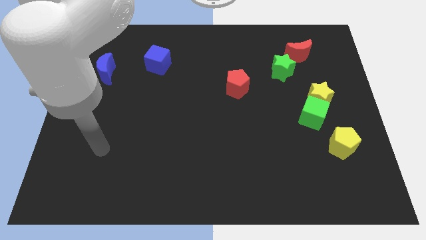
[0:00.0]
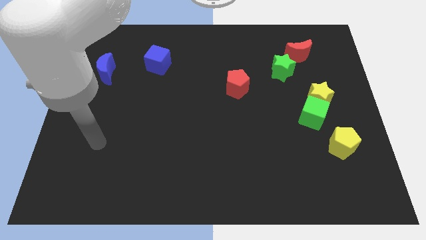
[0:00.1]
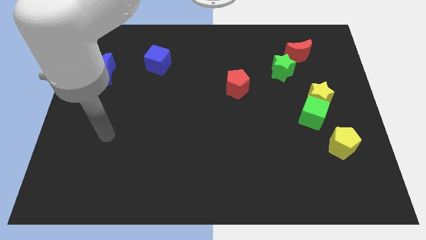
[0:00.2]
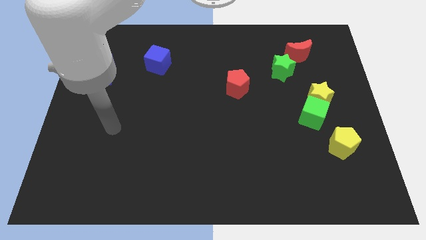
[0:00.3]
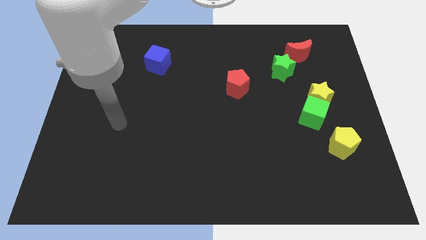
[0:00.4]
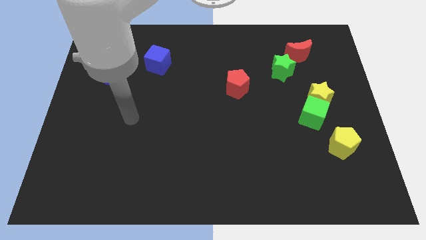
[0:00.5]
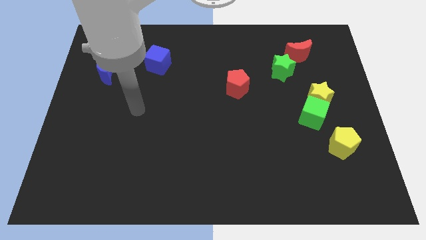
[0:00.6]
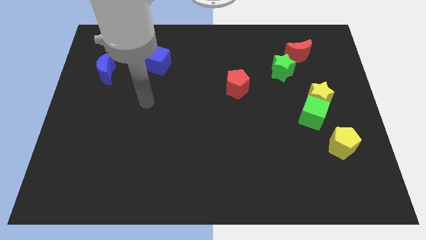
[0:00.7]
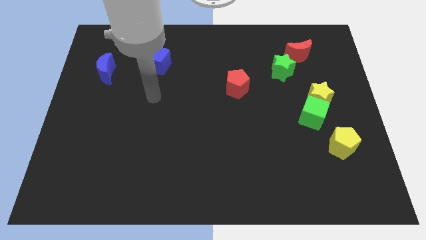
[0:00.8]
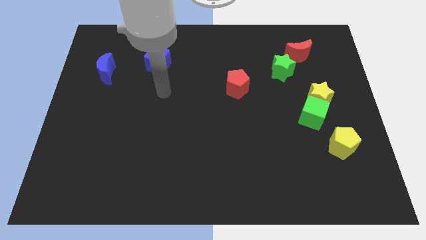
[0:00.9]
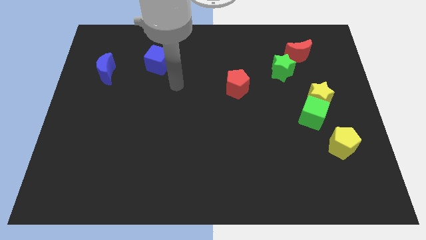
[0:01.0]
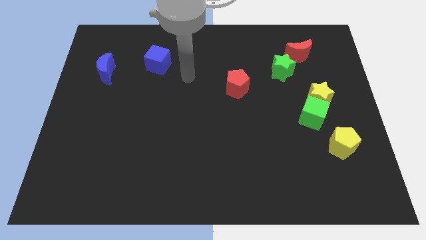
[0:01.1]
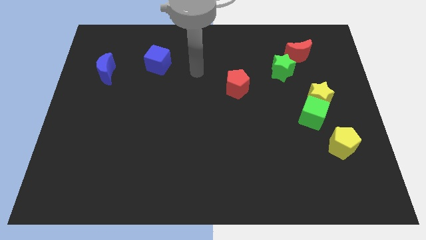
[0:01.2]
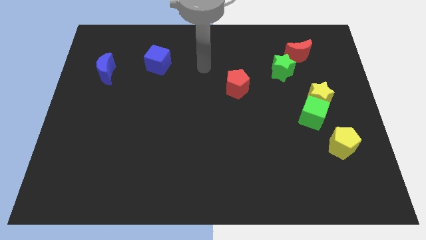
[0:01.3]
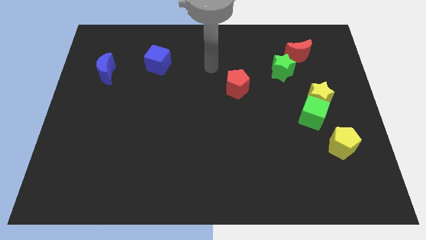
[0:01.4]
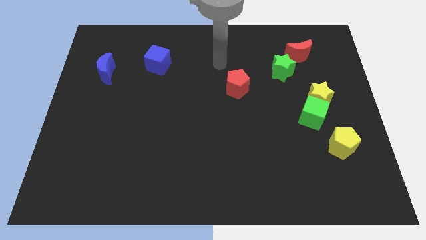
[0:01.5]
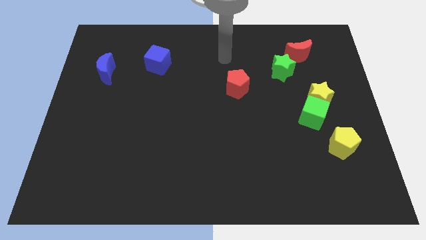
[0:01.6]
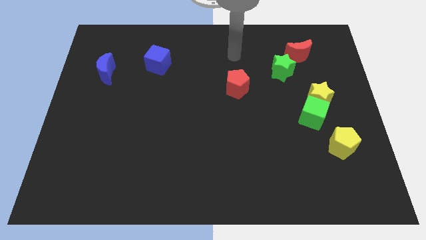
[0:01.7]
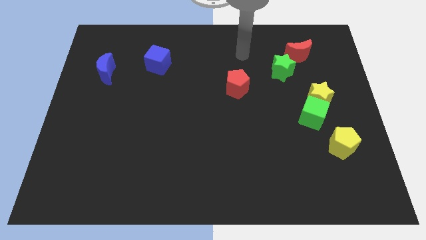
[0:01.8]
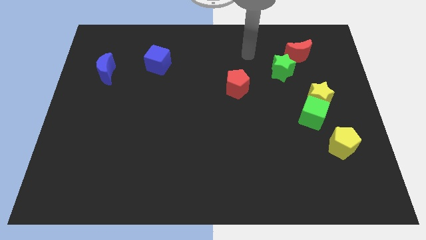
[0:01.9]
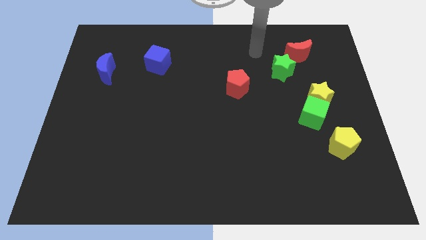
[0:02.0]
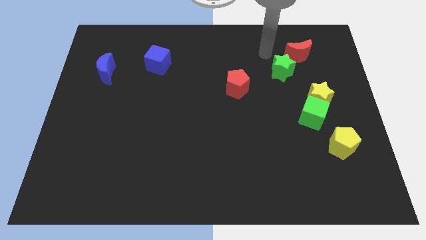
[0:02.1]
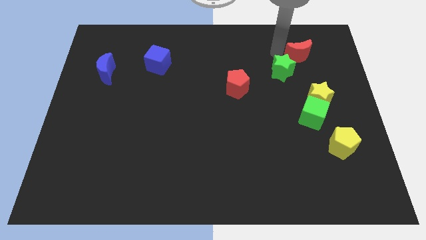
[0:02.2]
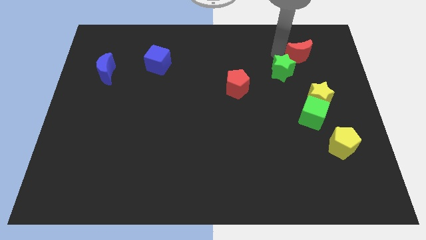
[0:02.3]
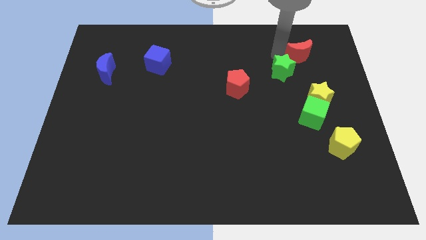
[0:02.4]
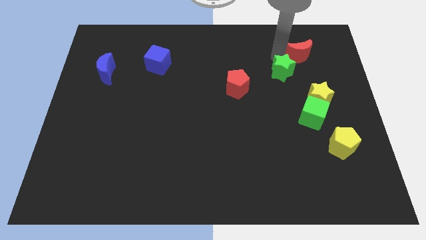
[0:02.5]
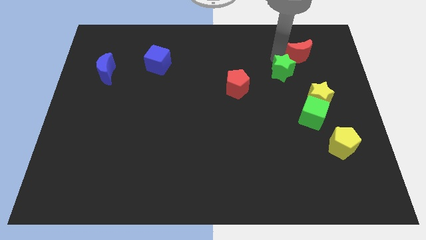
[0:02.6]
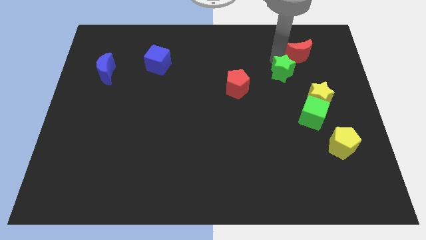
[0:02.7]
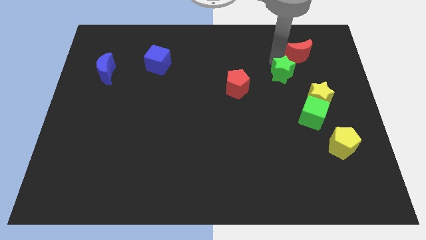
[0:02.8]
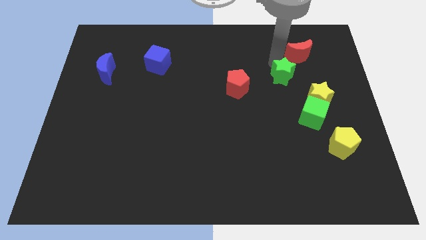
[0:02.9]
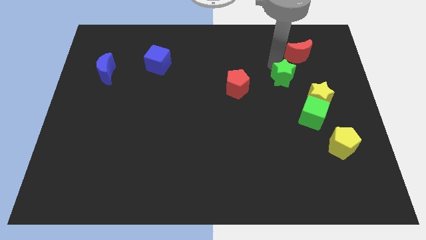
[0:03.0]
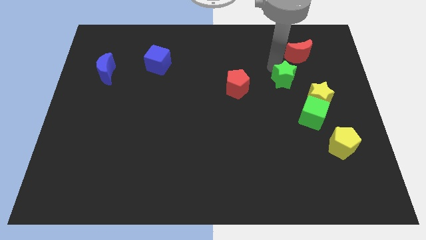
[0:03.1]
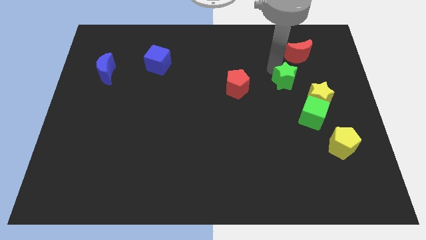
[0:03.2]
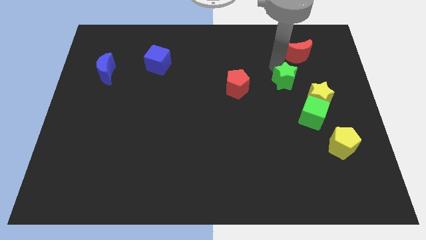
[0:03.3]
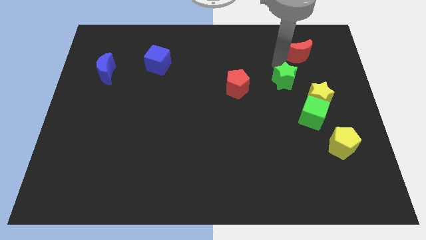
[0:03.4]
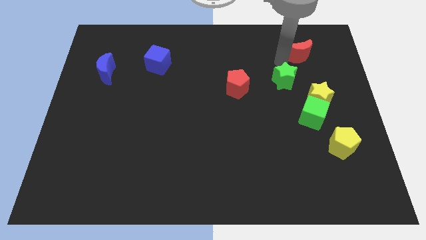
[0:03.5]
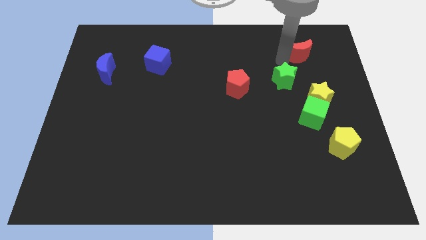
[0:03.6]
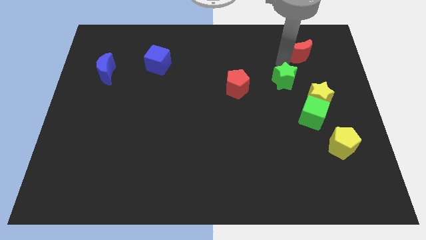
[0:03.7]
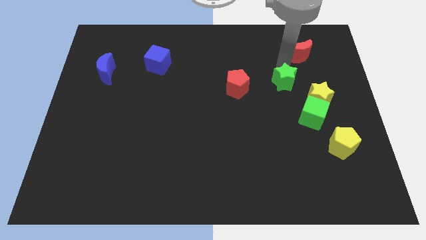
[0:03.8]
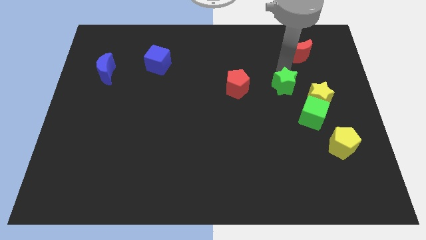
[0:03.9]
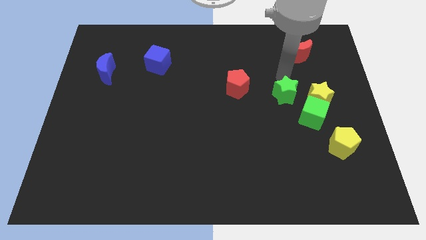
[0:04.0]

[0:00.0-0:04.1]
move the green star a little downwards

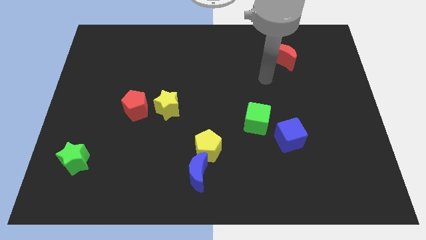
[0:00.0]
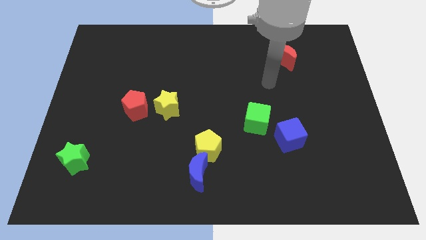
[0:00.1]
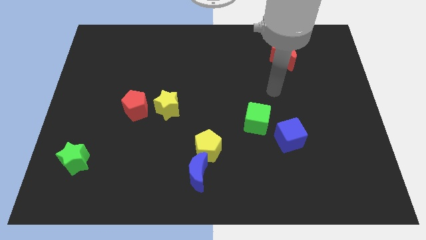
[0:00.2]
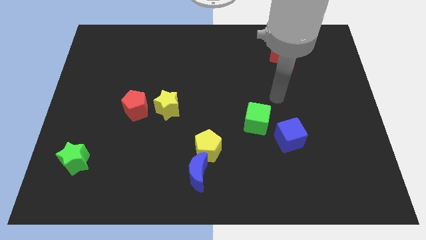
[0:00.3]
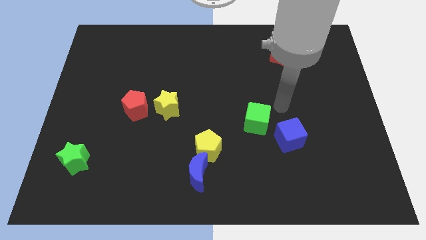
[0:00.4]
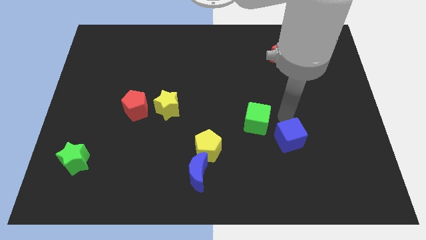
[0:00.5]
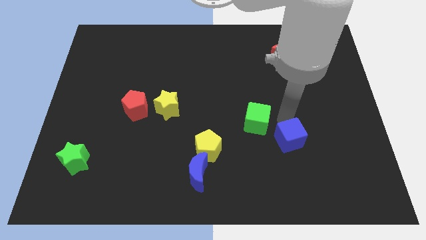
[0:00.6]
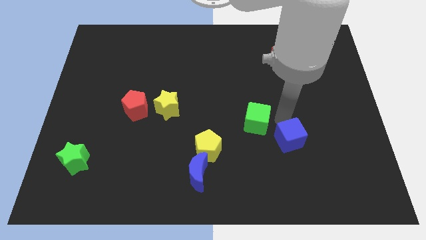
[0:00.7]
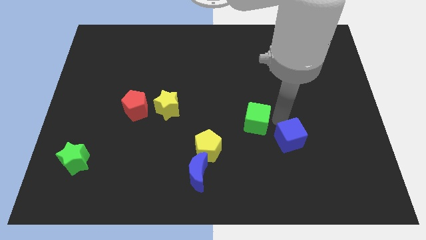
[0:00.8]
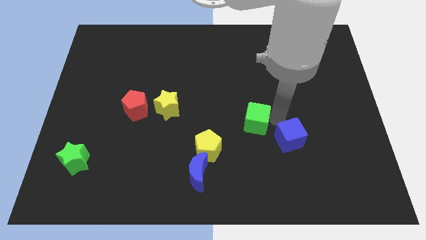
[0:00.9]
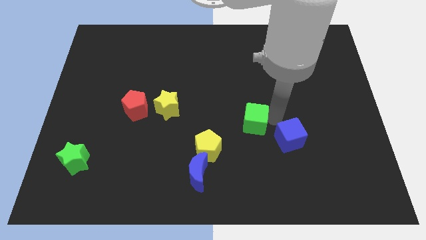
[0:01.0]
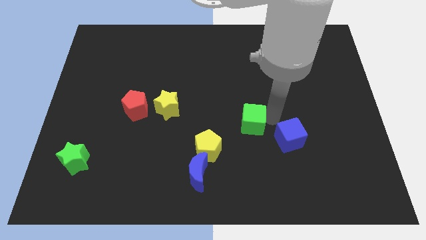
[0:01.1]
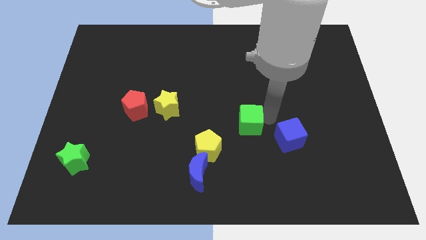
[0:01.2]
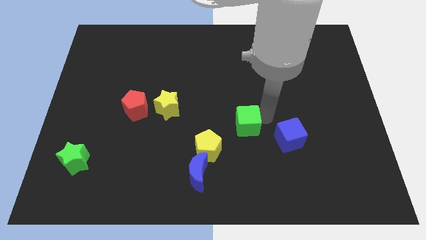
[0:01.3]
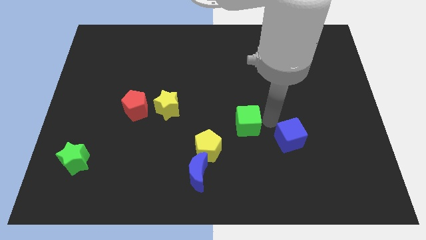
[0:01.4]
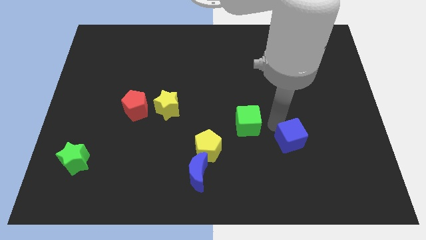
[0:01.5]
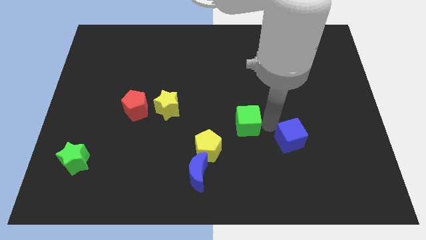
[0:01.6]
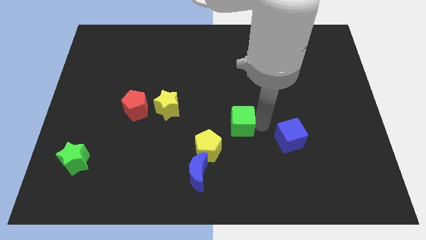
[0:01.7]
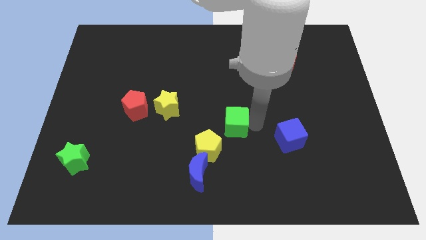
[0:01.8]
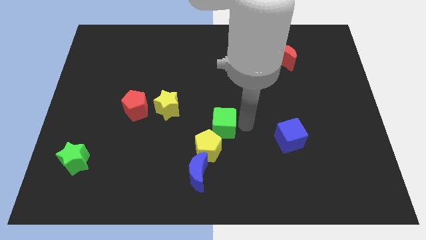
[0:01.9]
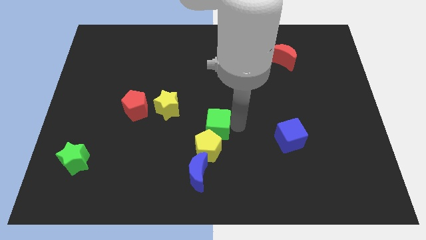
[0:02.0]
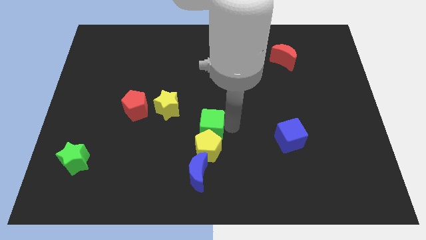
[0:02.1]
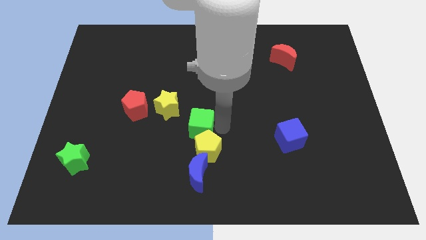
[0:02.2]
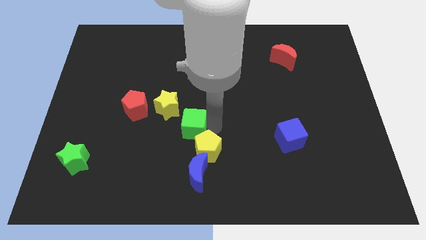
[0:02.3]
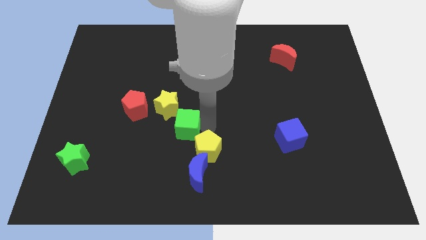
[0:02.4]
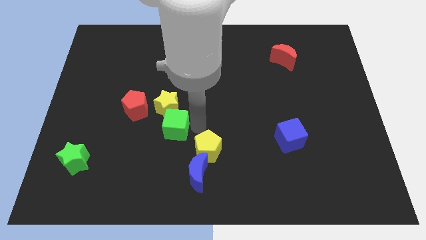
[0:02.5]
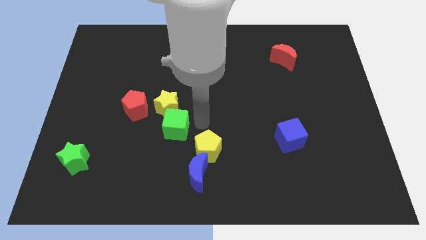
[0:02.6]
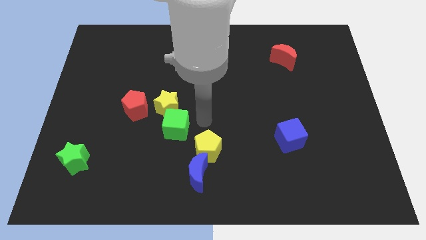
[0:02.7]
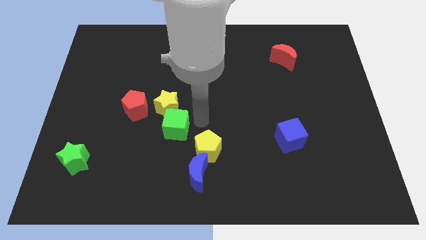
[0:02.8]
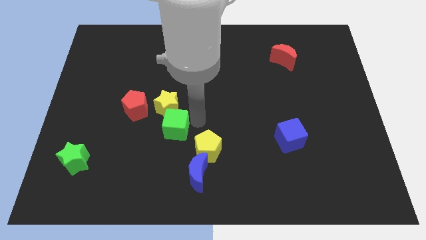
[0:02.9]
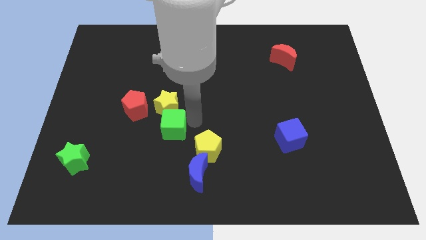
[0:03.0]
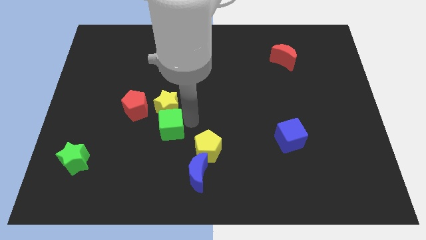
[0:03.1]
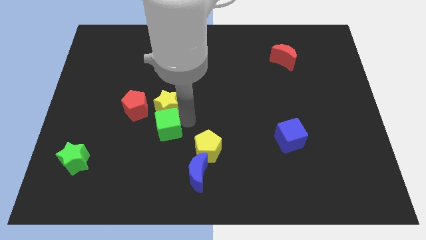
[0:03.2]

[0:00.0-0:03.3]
move the green cube to the left

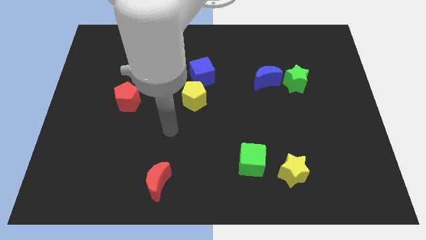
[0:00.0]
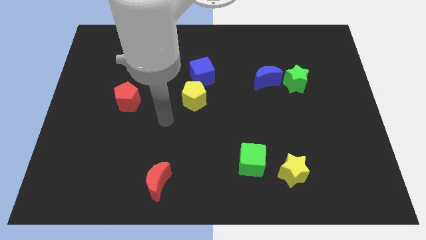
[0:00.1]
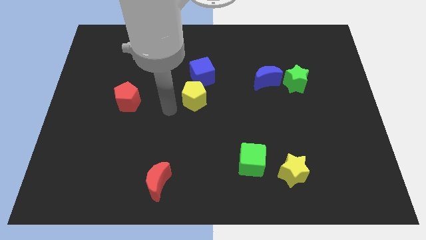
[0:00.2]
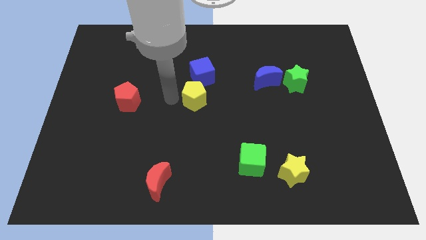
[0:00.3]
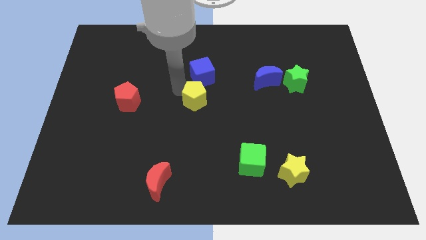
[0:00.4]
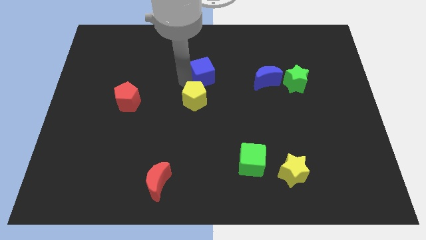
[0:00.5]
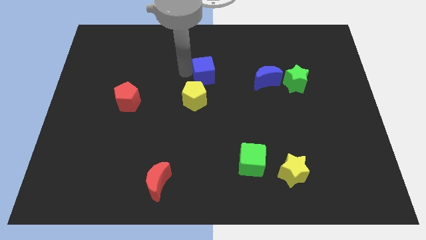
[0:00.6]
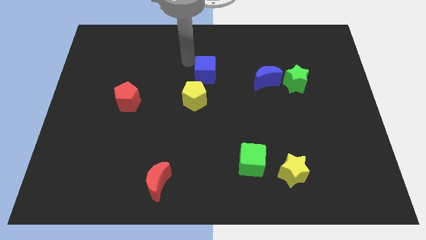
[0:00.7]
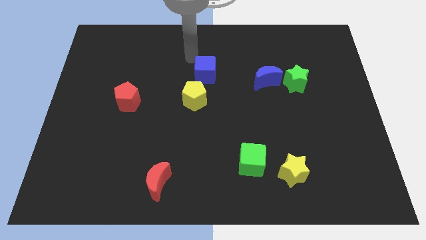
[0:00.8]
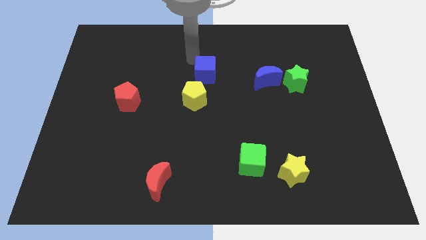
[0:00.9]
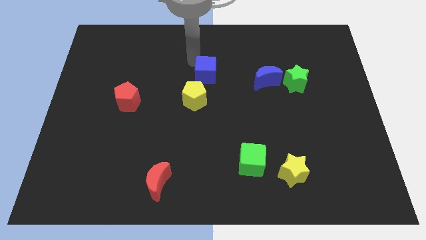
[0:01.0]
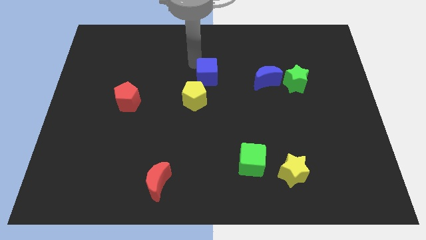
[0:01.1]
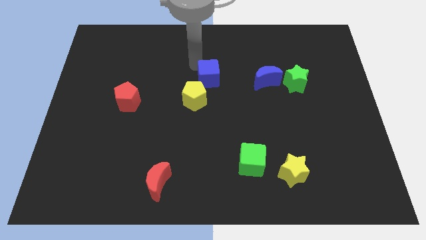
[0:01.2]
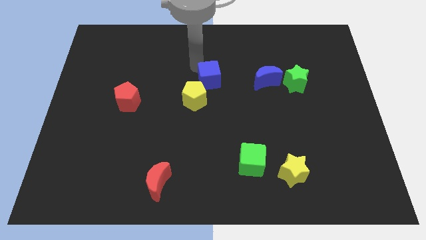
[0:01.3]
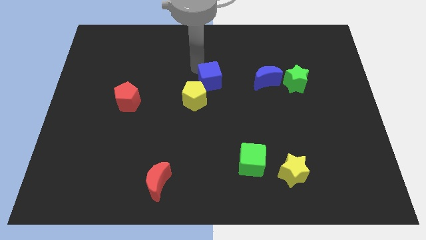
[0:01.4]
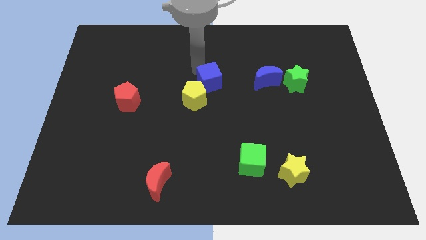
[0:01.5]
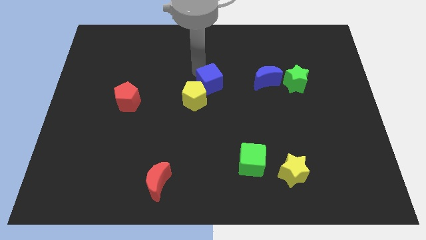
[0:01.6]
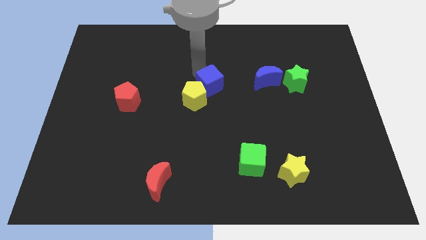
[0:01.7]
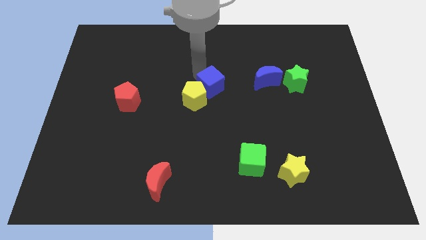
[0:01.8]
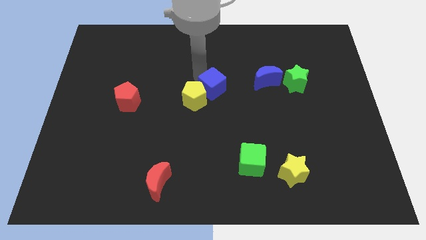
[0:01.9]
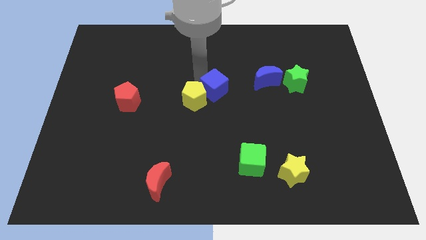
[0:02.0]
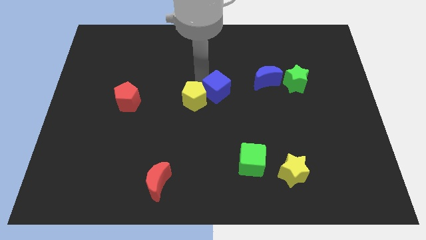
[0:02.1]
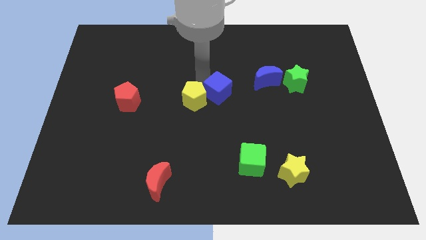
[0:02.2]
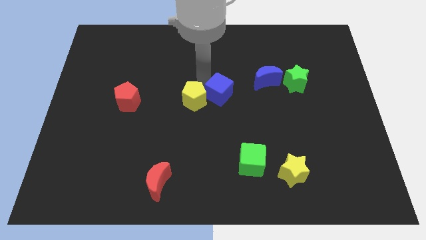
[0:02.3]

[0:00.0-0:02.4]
slightly push the blue cube down and right
